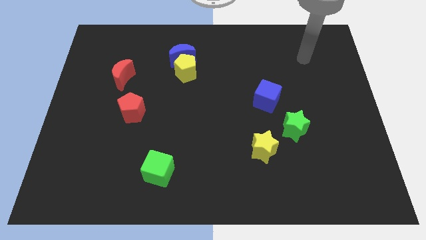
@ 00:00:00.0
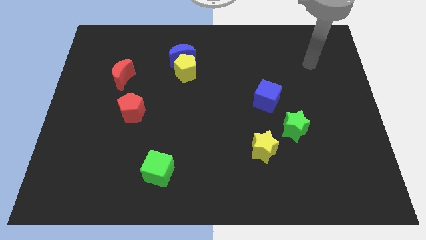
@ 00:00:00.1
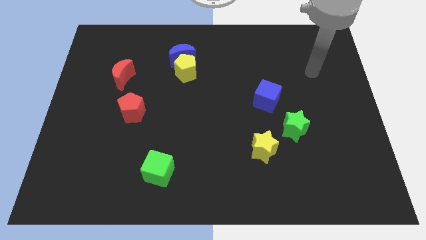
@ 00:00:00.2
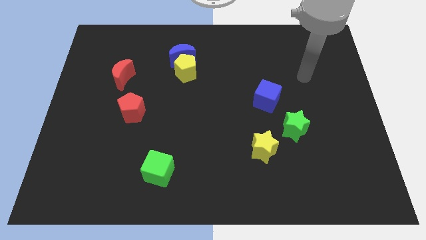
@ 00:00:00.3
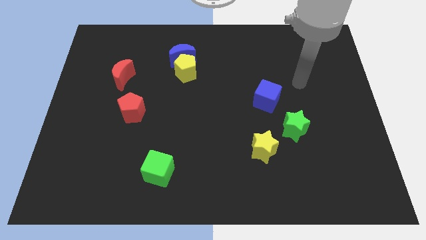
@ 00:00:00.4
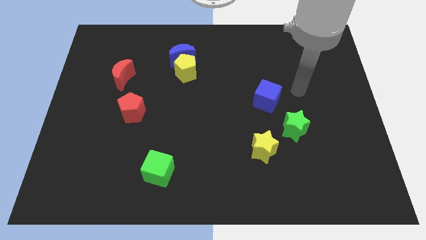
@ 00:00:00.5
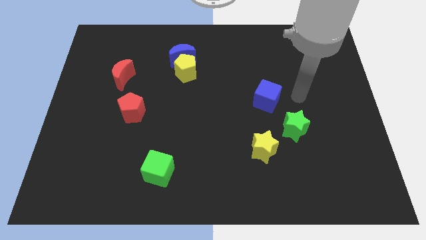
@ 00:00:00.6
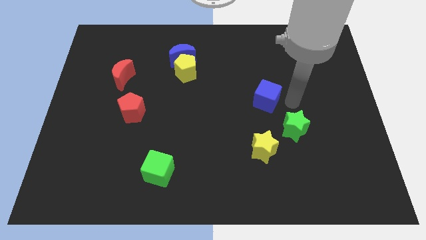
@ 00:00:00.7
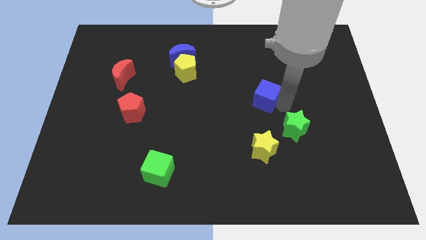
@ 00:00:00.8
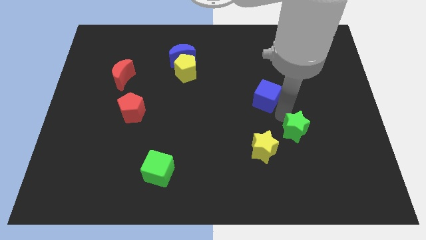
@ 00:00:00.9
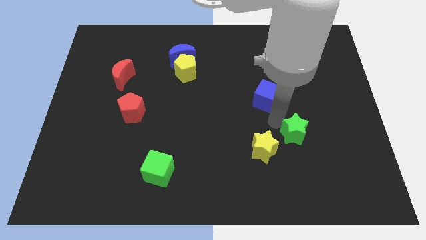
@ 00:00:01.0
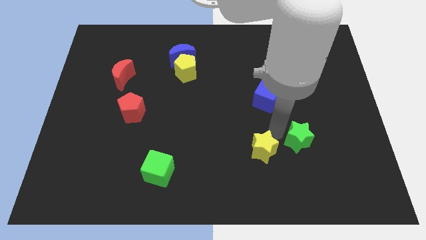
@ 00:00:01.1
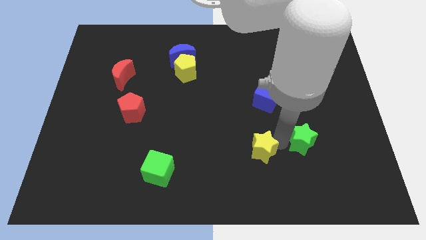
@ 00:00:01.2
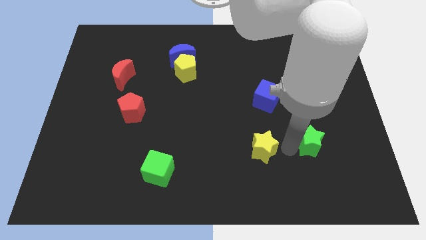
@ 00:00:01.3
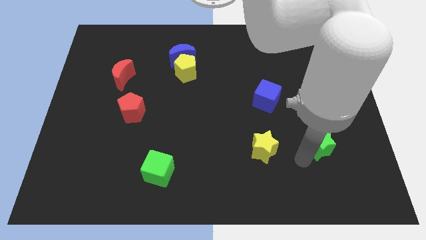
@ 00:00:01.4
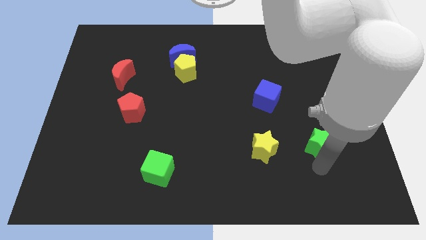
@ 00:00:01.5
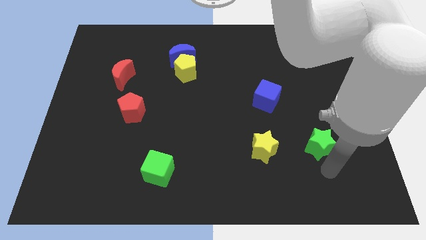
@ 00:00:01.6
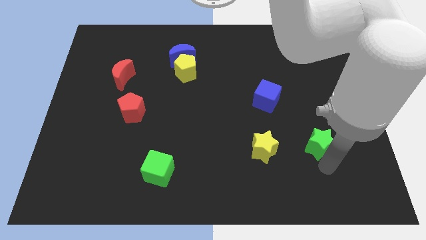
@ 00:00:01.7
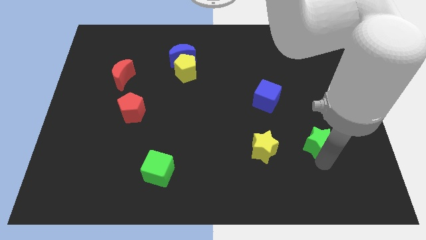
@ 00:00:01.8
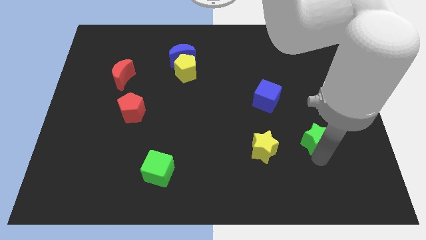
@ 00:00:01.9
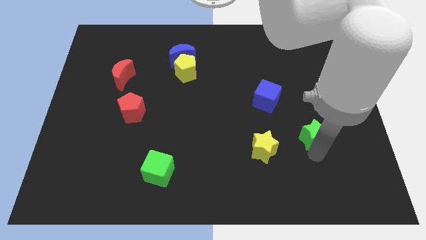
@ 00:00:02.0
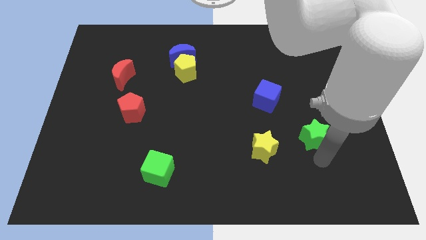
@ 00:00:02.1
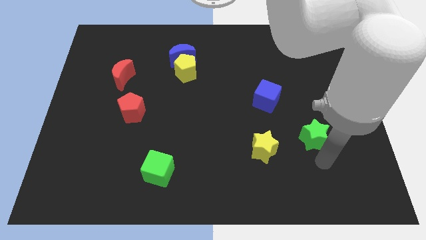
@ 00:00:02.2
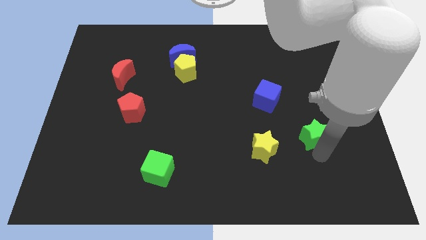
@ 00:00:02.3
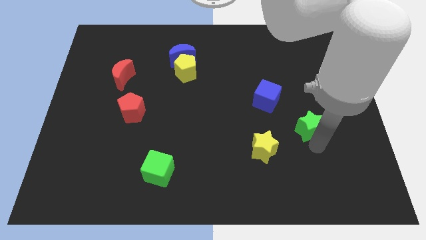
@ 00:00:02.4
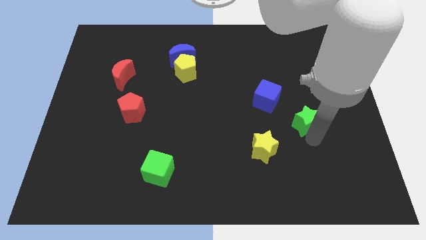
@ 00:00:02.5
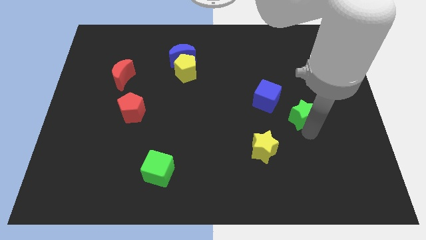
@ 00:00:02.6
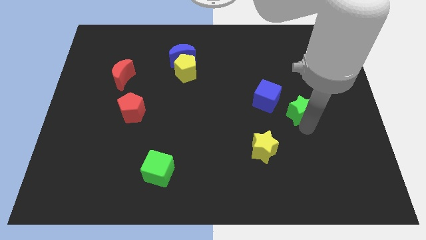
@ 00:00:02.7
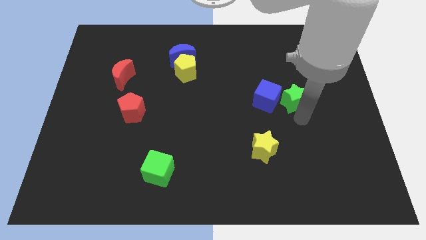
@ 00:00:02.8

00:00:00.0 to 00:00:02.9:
move the green star a bit upwards

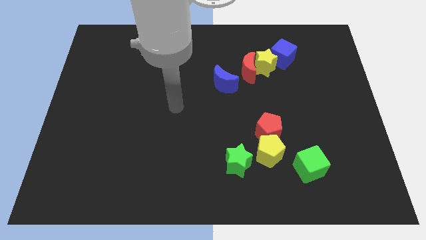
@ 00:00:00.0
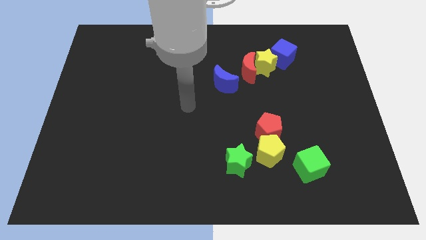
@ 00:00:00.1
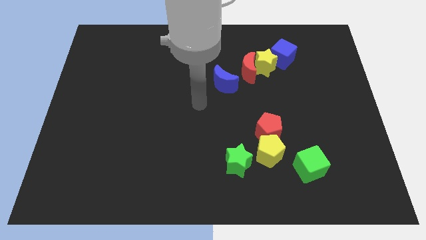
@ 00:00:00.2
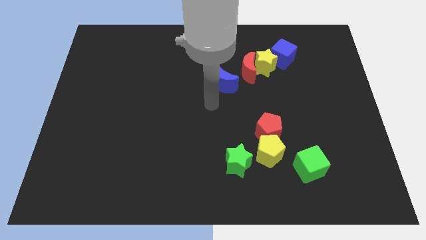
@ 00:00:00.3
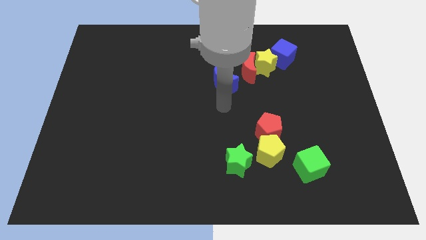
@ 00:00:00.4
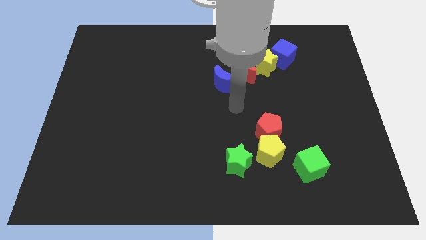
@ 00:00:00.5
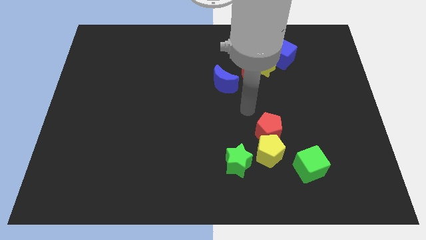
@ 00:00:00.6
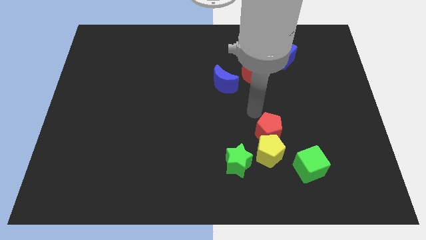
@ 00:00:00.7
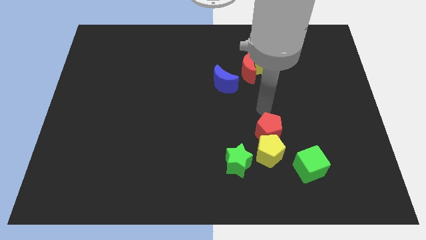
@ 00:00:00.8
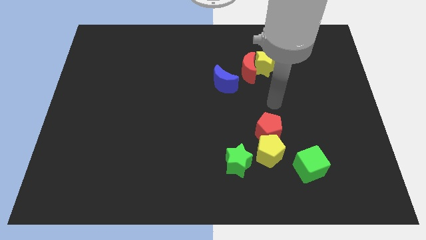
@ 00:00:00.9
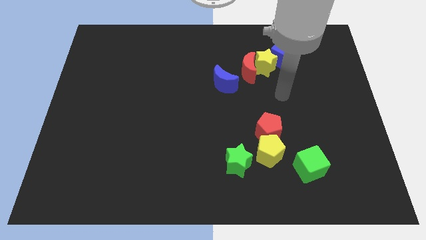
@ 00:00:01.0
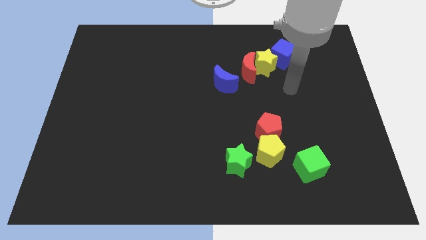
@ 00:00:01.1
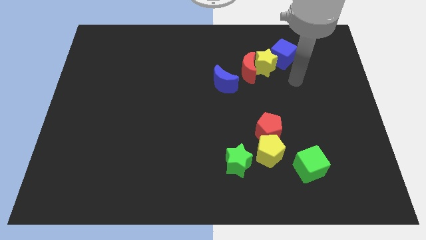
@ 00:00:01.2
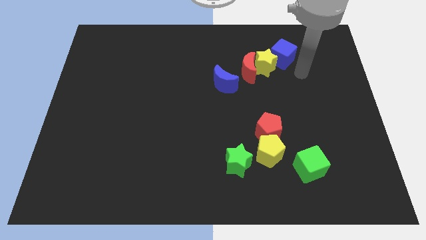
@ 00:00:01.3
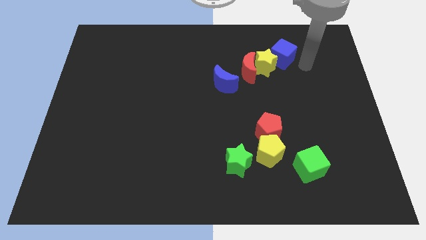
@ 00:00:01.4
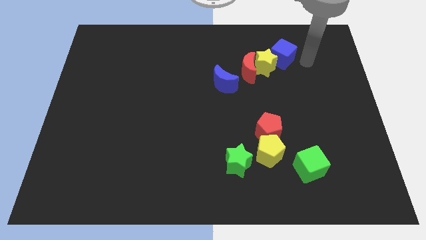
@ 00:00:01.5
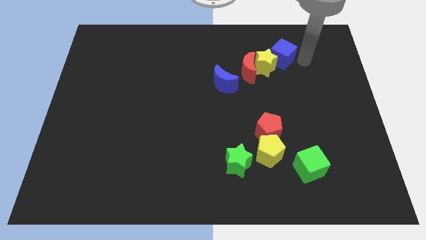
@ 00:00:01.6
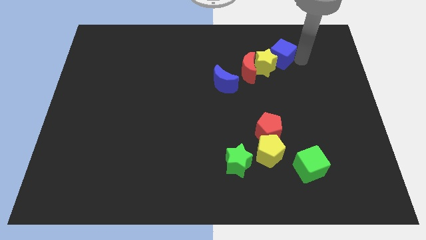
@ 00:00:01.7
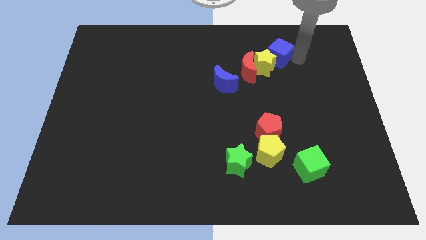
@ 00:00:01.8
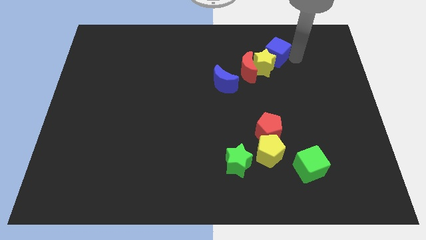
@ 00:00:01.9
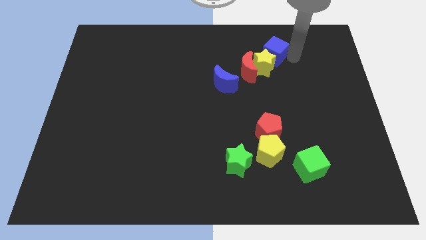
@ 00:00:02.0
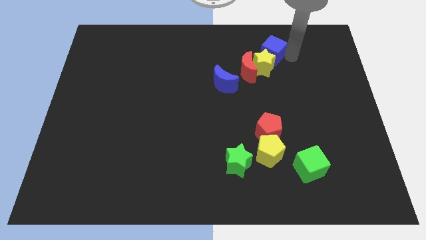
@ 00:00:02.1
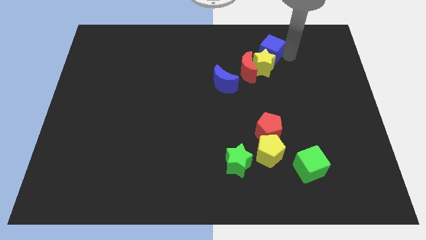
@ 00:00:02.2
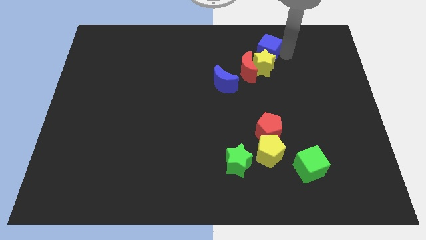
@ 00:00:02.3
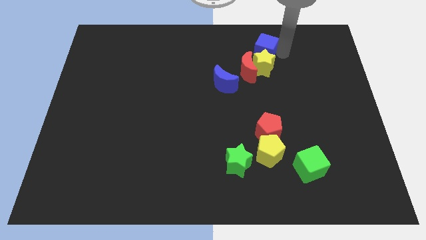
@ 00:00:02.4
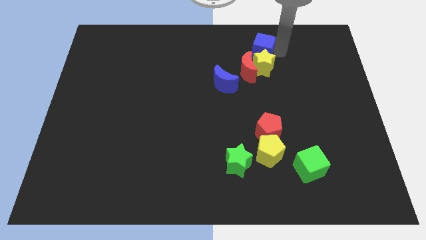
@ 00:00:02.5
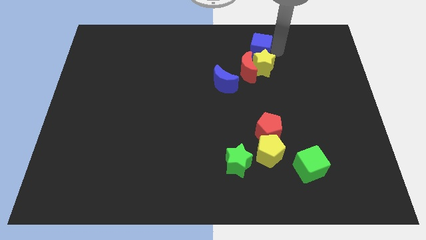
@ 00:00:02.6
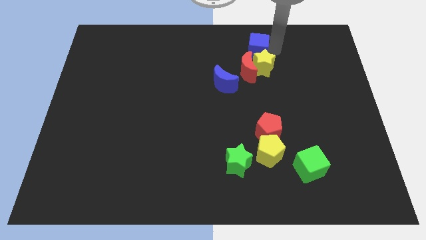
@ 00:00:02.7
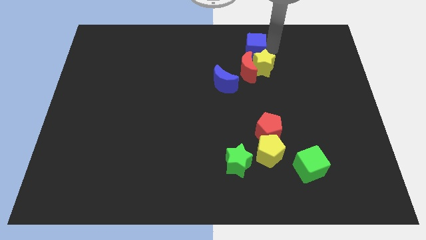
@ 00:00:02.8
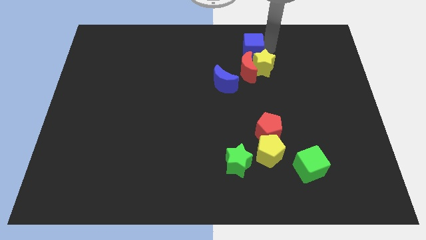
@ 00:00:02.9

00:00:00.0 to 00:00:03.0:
slightly slide the blue cube left

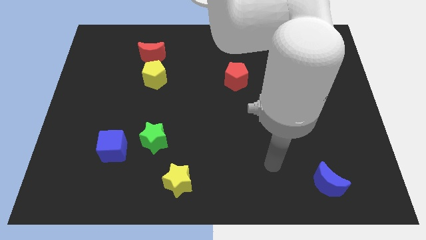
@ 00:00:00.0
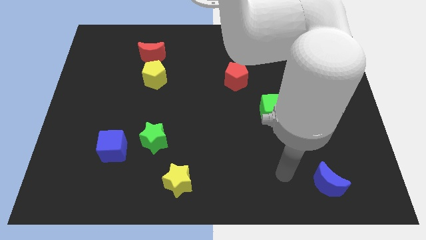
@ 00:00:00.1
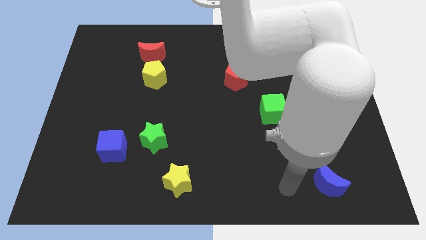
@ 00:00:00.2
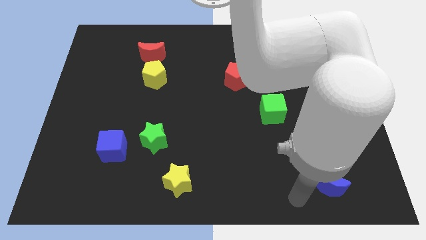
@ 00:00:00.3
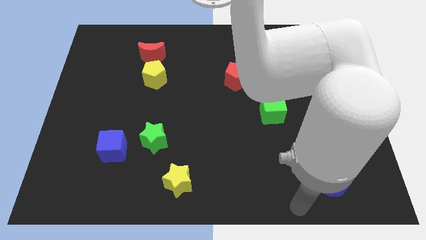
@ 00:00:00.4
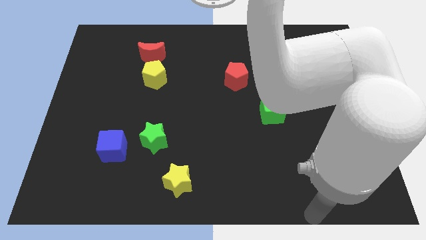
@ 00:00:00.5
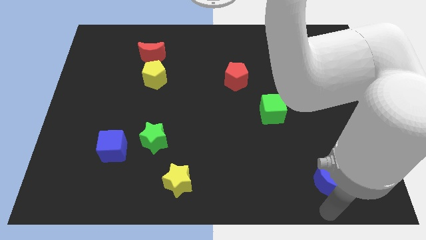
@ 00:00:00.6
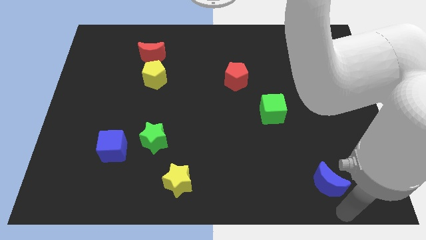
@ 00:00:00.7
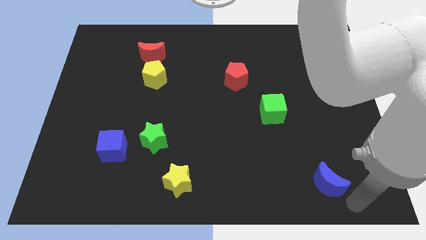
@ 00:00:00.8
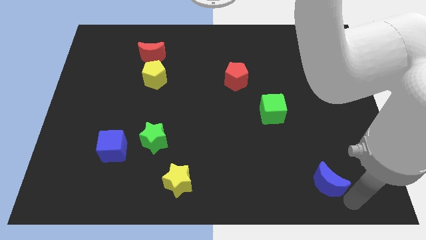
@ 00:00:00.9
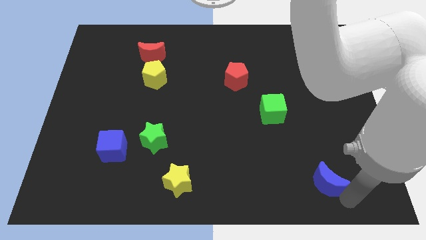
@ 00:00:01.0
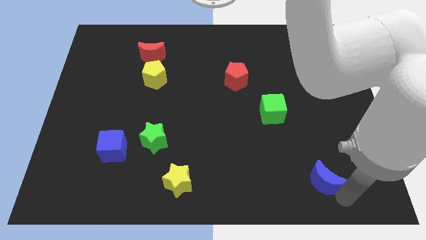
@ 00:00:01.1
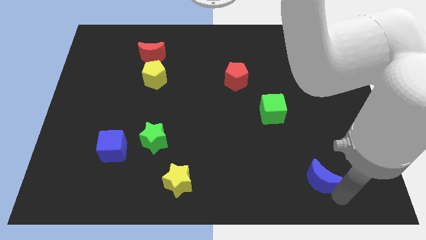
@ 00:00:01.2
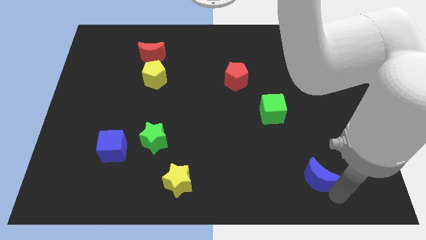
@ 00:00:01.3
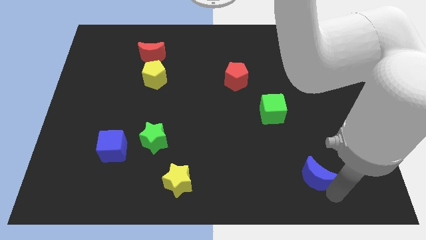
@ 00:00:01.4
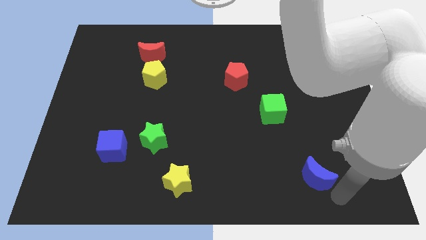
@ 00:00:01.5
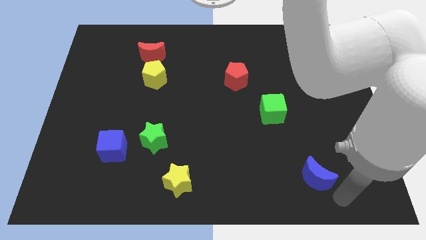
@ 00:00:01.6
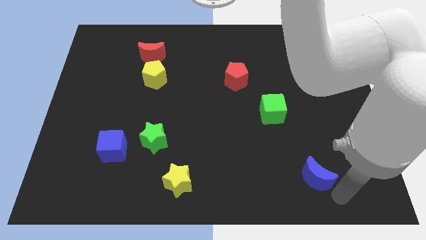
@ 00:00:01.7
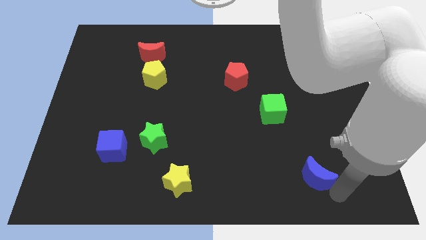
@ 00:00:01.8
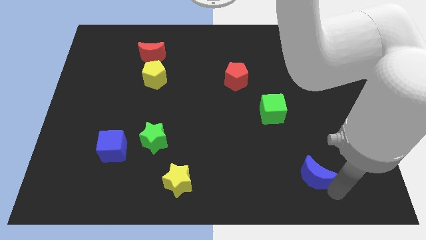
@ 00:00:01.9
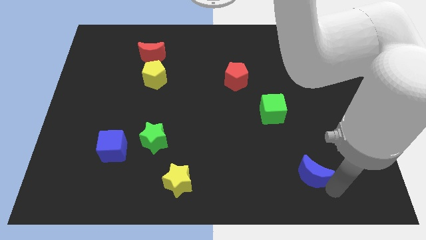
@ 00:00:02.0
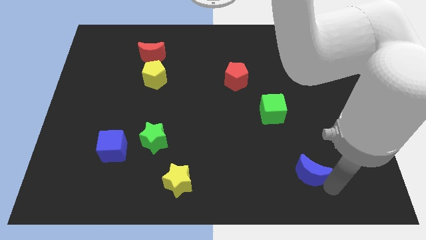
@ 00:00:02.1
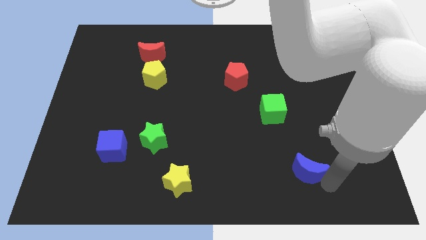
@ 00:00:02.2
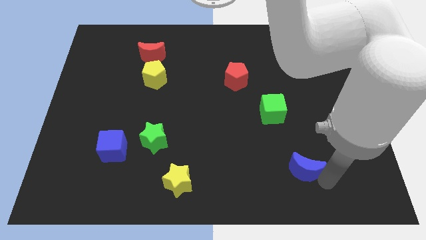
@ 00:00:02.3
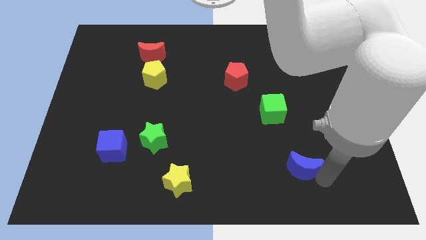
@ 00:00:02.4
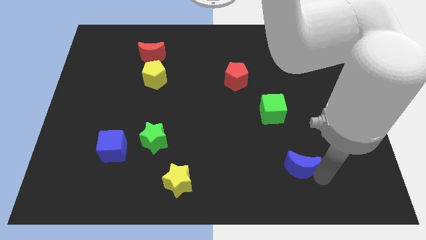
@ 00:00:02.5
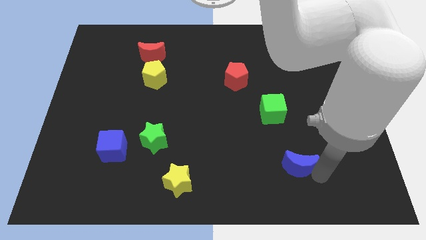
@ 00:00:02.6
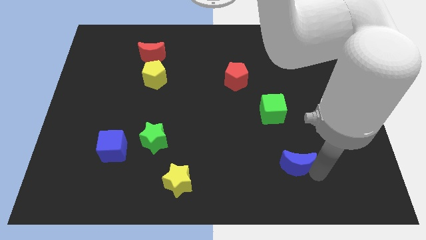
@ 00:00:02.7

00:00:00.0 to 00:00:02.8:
slightly move the blue moon diagonally up and to the left
